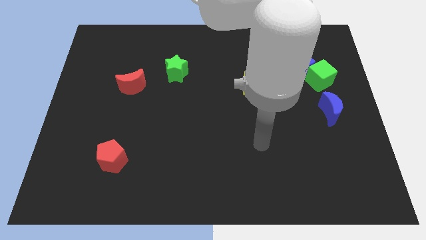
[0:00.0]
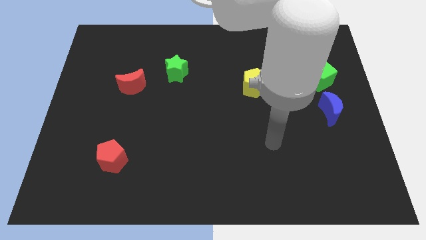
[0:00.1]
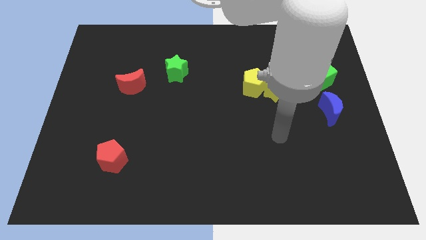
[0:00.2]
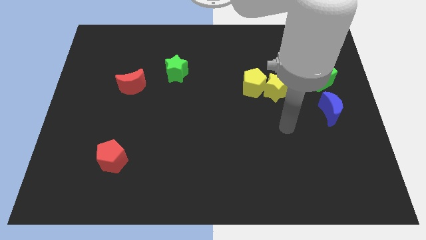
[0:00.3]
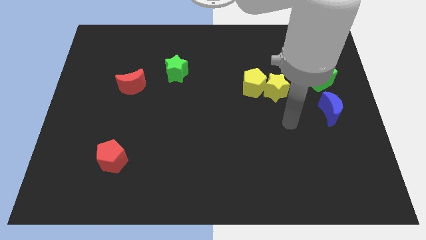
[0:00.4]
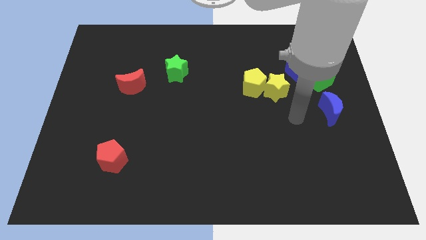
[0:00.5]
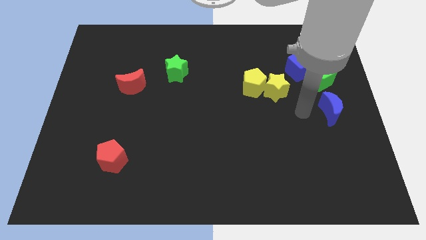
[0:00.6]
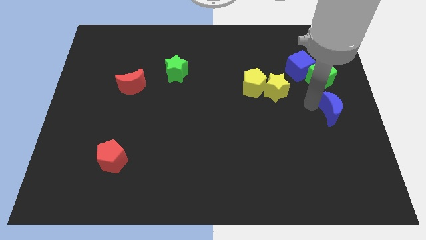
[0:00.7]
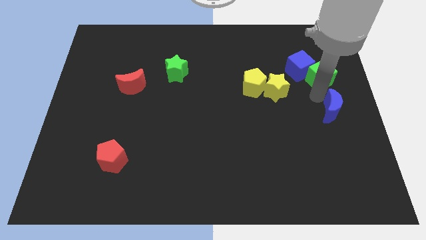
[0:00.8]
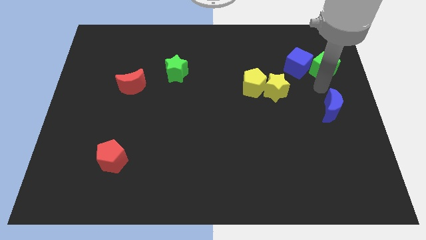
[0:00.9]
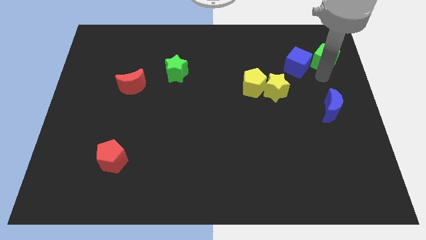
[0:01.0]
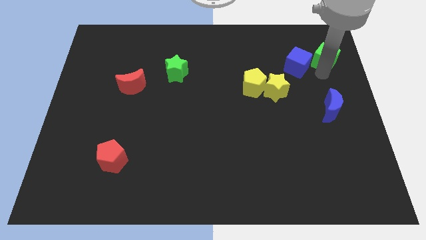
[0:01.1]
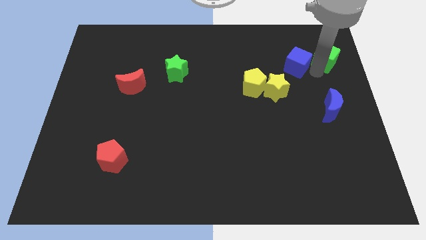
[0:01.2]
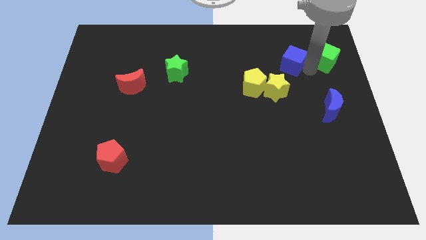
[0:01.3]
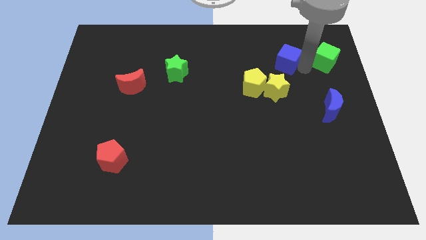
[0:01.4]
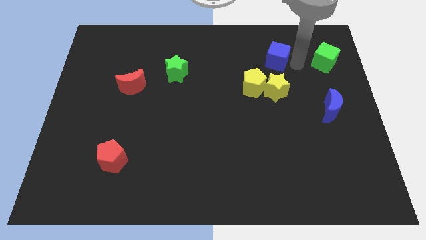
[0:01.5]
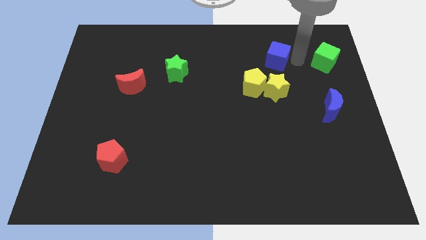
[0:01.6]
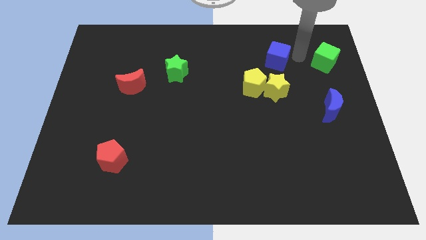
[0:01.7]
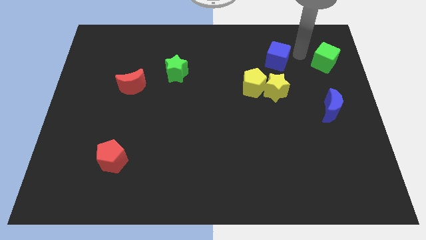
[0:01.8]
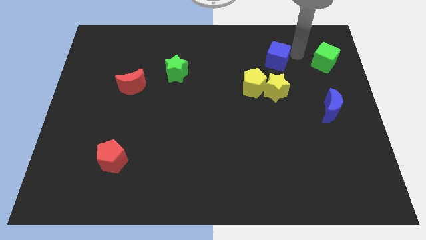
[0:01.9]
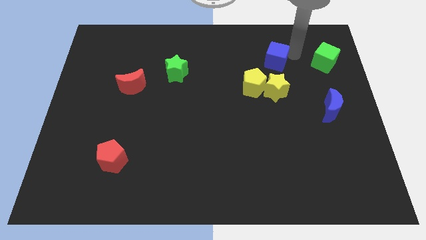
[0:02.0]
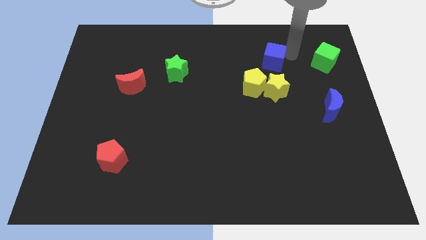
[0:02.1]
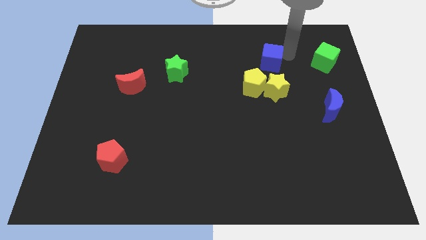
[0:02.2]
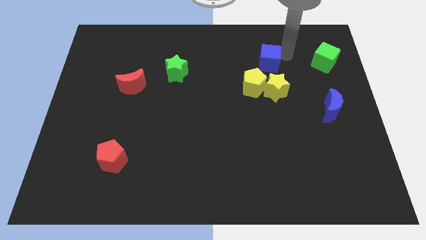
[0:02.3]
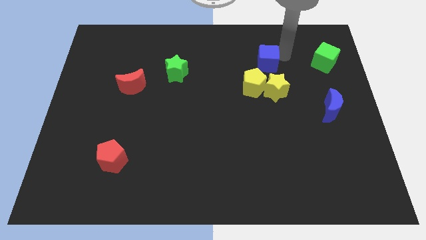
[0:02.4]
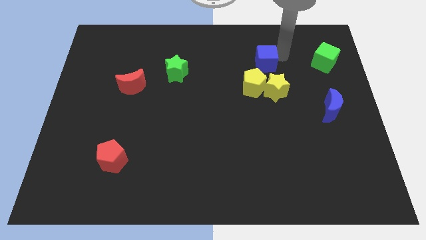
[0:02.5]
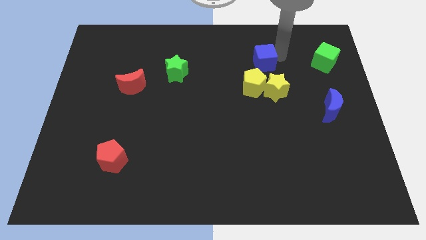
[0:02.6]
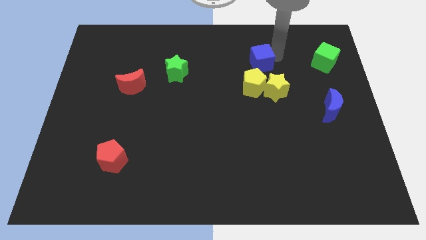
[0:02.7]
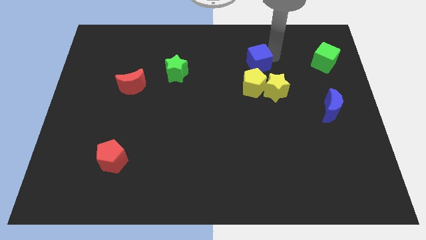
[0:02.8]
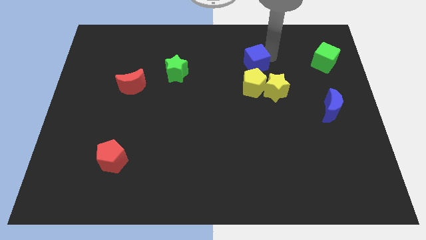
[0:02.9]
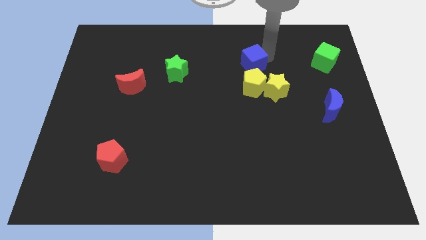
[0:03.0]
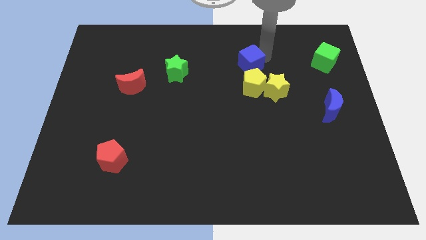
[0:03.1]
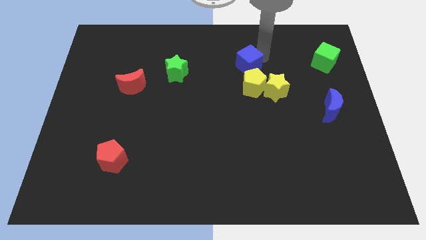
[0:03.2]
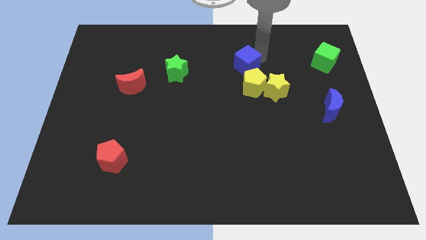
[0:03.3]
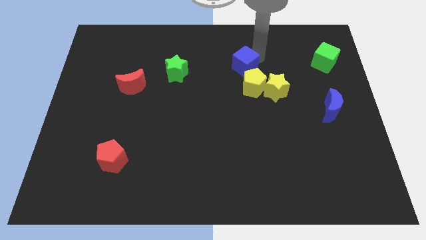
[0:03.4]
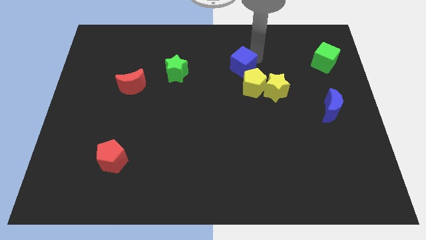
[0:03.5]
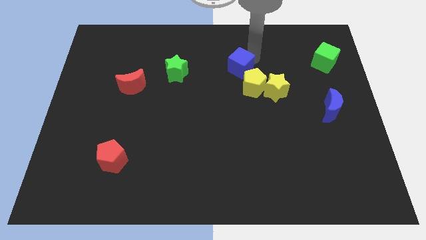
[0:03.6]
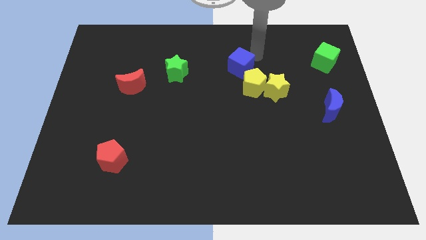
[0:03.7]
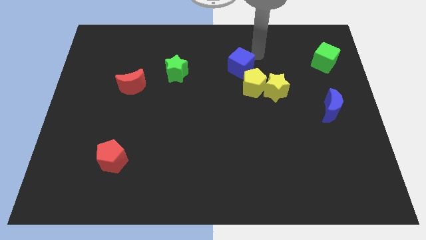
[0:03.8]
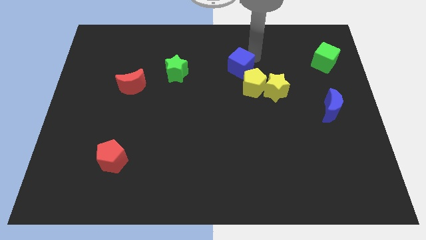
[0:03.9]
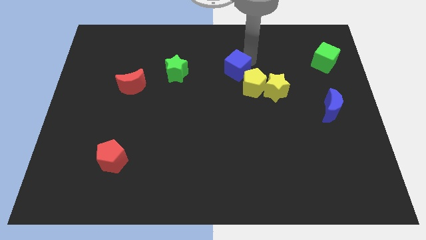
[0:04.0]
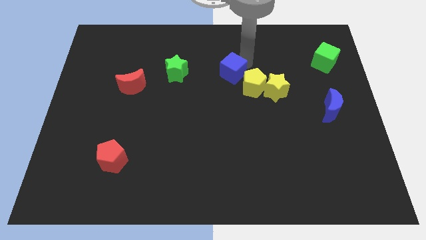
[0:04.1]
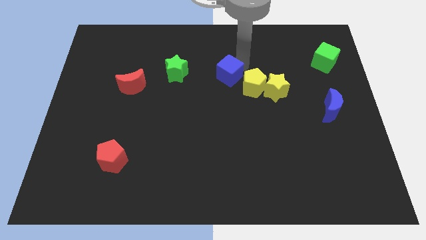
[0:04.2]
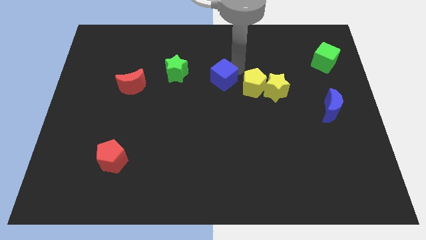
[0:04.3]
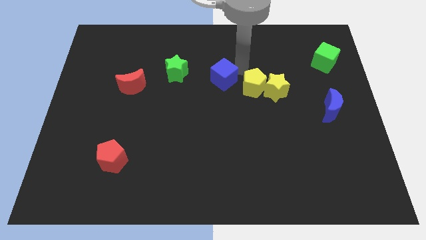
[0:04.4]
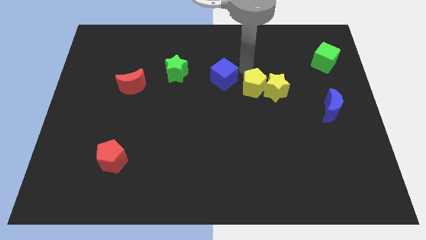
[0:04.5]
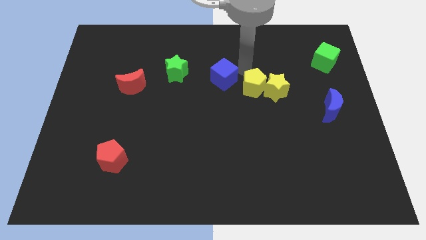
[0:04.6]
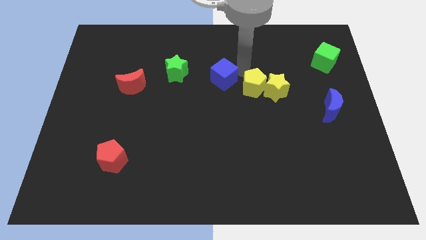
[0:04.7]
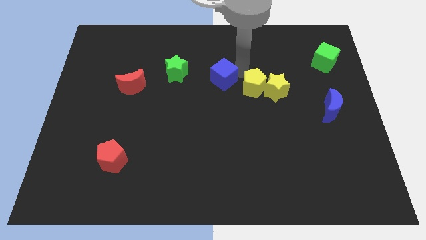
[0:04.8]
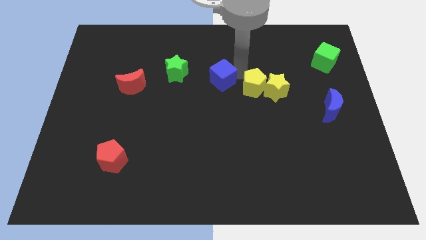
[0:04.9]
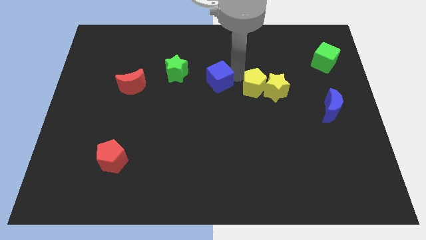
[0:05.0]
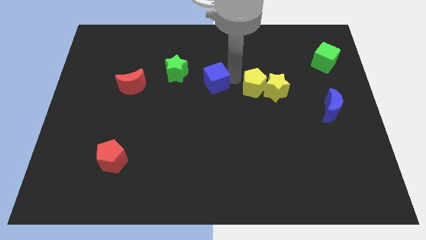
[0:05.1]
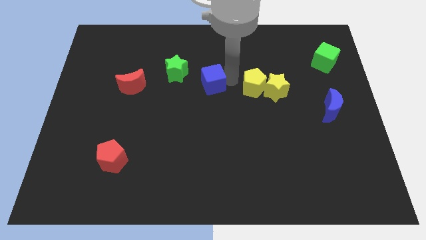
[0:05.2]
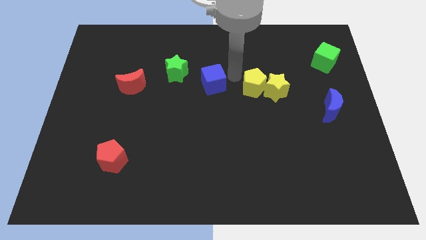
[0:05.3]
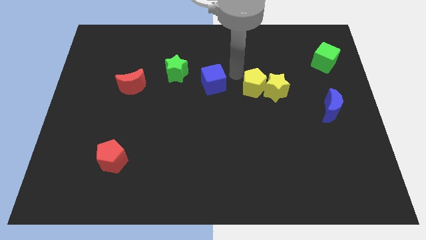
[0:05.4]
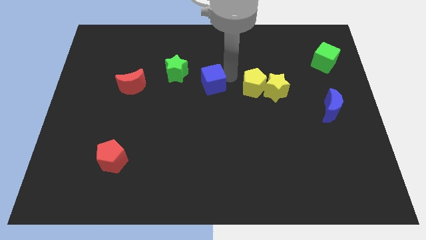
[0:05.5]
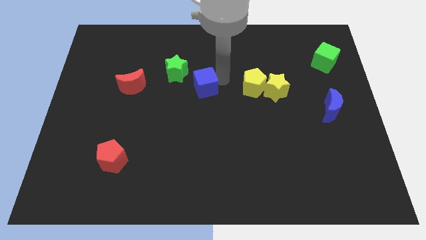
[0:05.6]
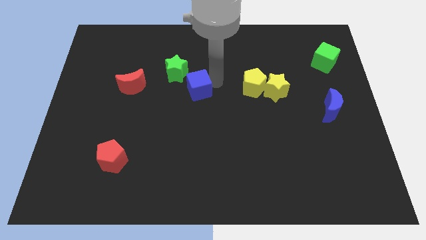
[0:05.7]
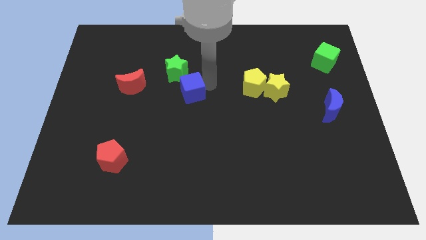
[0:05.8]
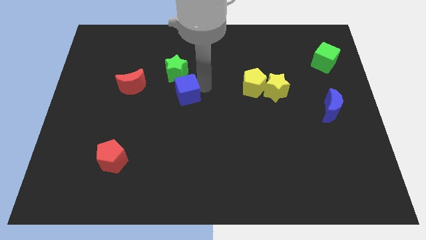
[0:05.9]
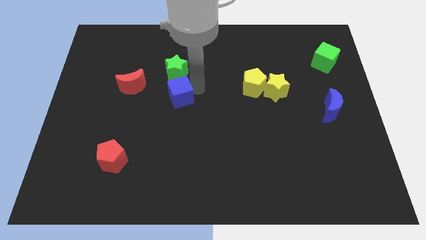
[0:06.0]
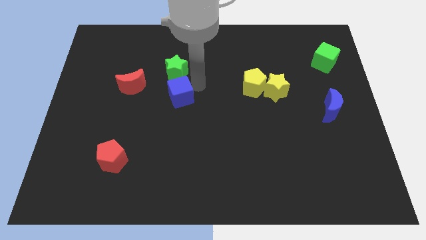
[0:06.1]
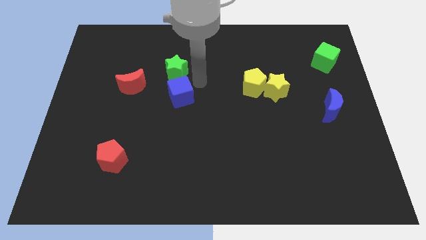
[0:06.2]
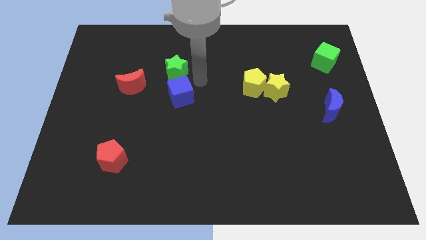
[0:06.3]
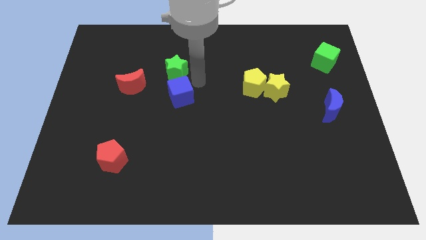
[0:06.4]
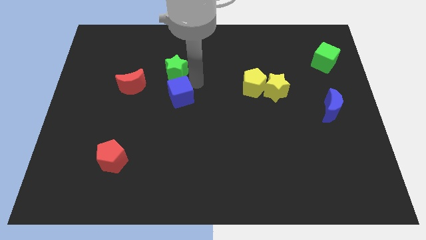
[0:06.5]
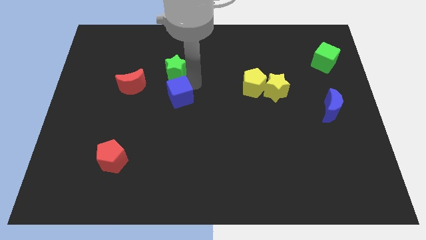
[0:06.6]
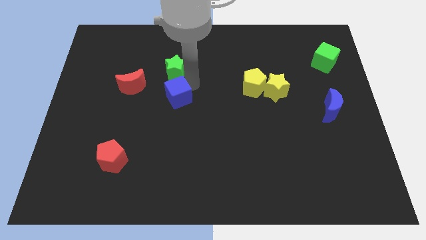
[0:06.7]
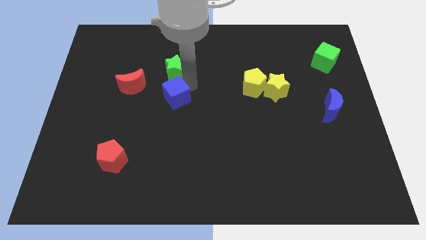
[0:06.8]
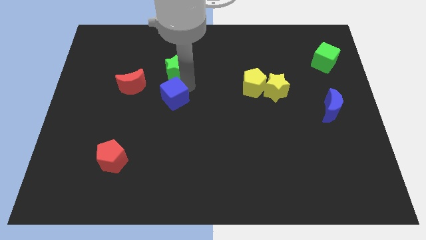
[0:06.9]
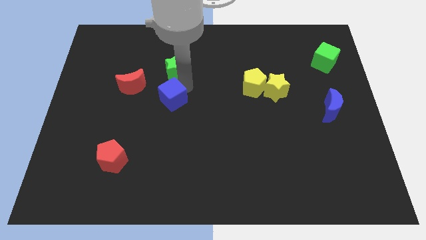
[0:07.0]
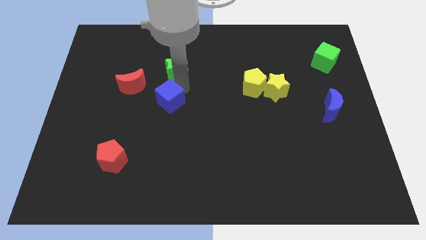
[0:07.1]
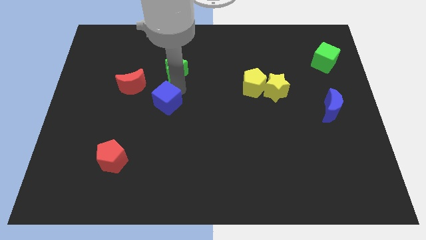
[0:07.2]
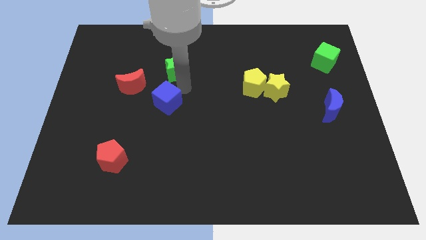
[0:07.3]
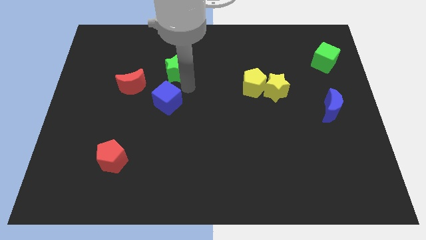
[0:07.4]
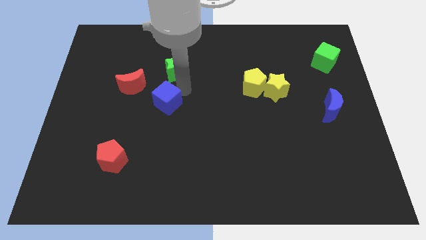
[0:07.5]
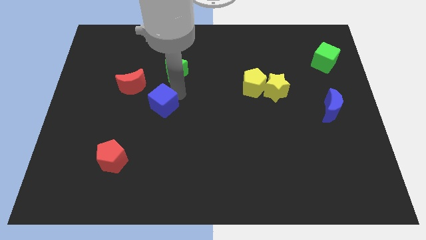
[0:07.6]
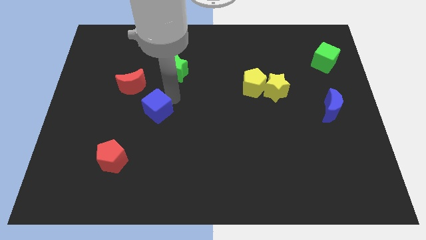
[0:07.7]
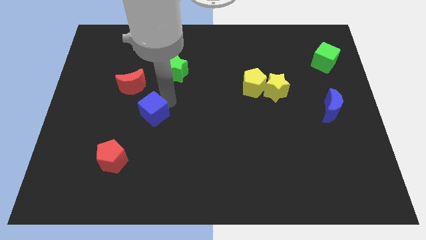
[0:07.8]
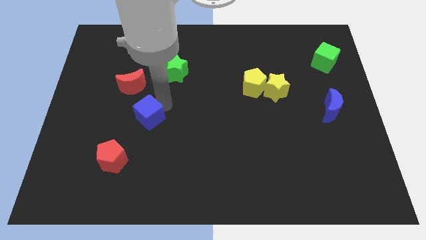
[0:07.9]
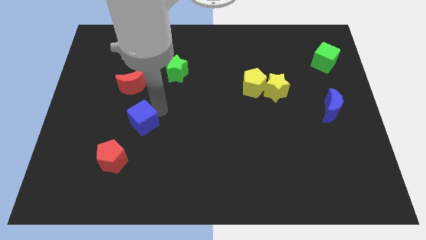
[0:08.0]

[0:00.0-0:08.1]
slide the blue cube to the bottom of the red moon
